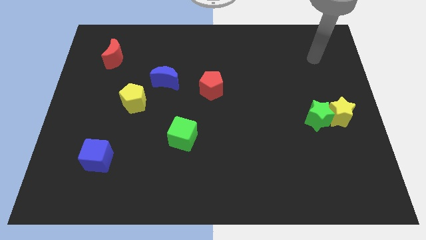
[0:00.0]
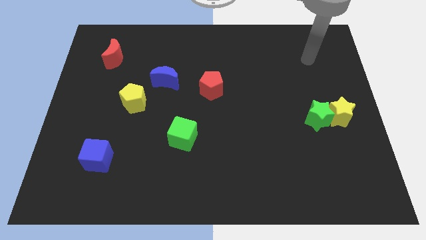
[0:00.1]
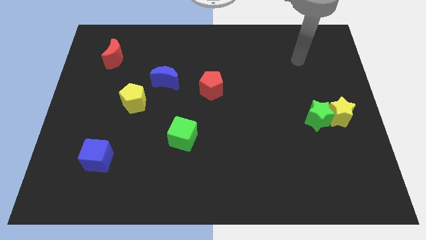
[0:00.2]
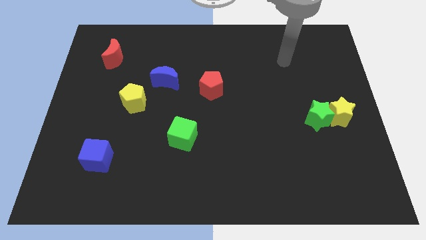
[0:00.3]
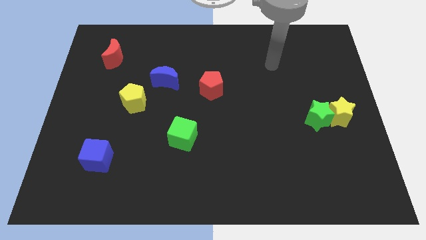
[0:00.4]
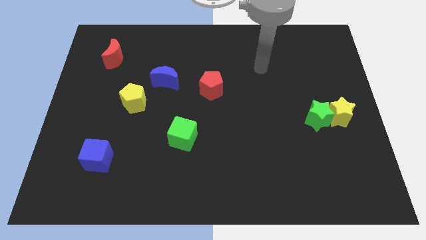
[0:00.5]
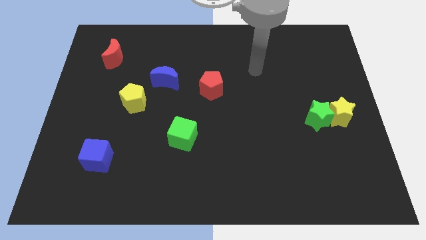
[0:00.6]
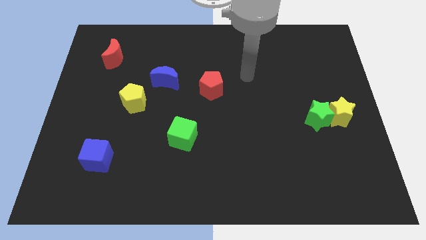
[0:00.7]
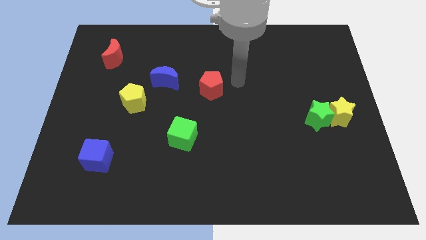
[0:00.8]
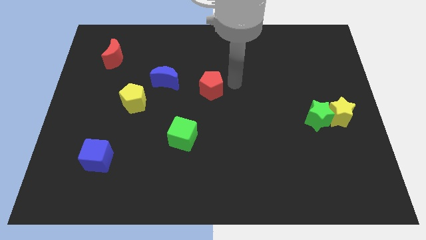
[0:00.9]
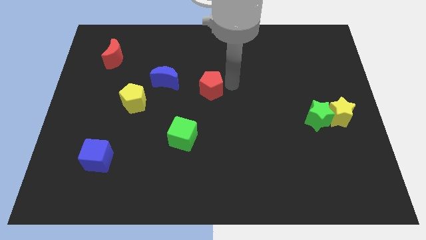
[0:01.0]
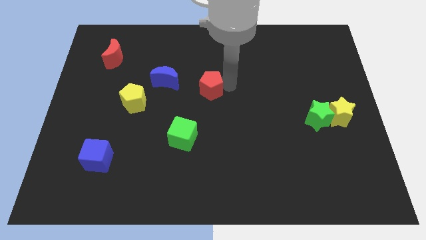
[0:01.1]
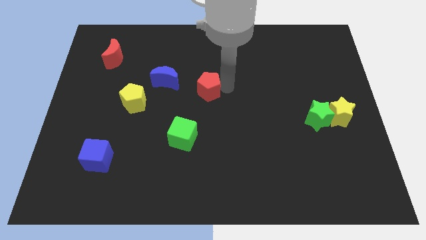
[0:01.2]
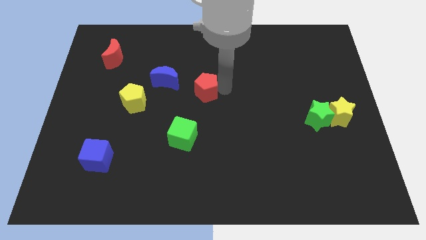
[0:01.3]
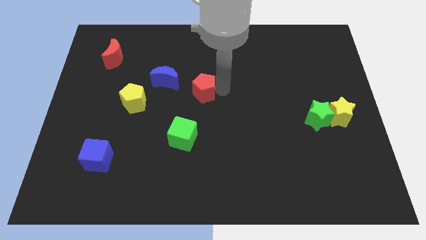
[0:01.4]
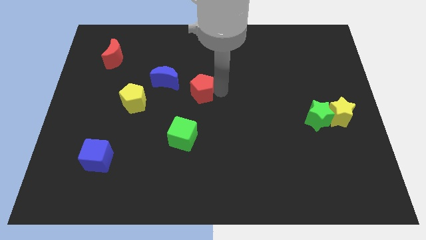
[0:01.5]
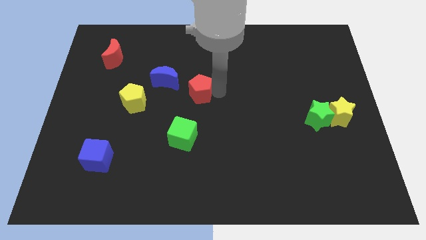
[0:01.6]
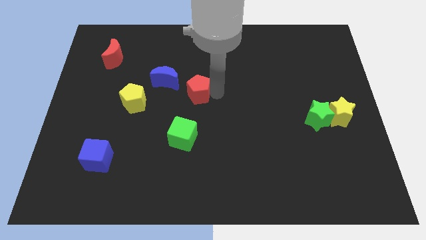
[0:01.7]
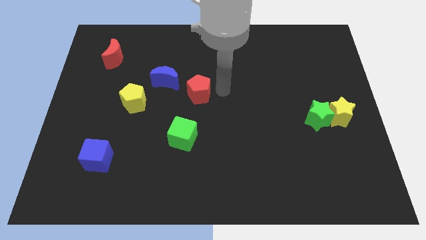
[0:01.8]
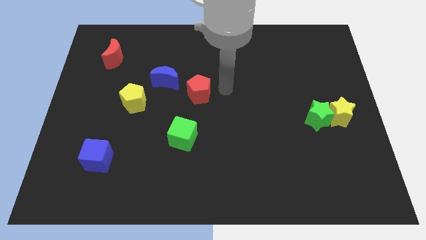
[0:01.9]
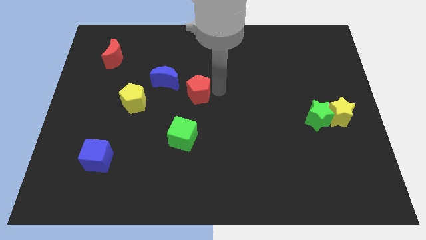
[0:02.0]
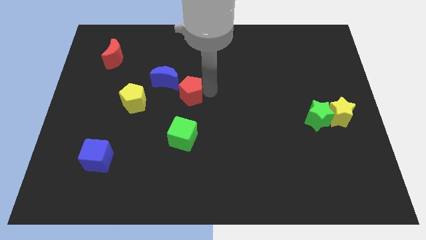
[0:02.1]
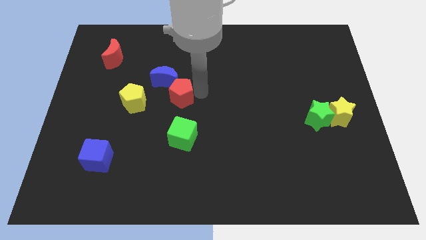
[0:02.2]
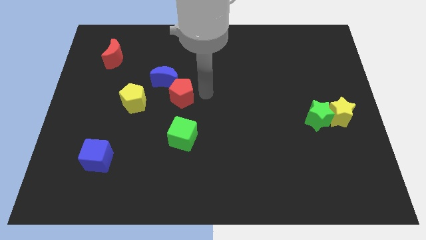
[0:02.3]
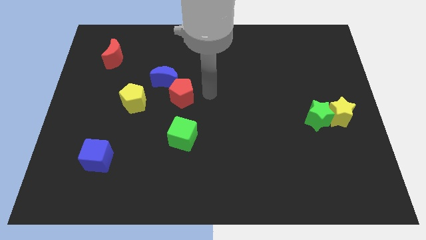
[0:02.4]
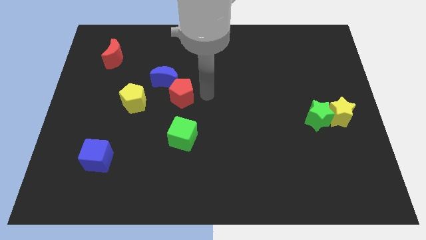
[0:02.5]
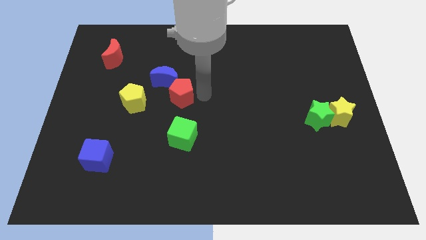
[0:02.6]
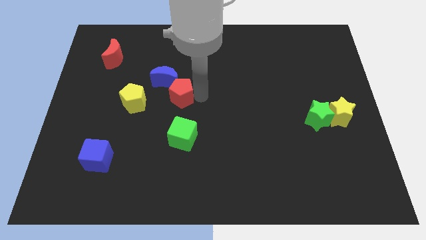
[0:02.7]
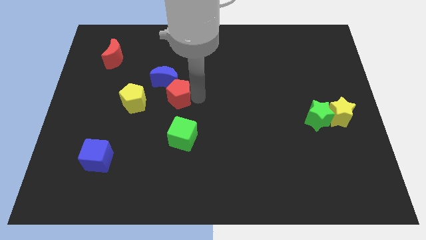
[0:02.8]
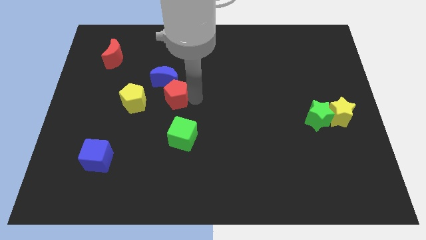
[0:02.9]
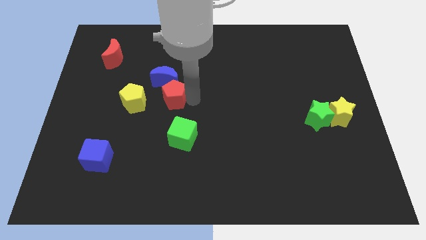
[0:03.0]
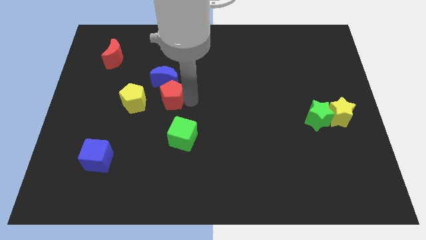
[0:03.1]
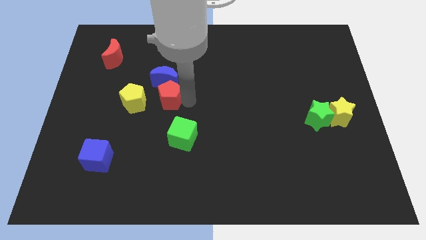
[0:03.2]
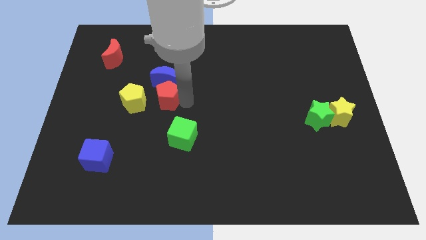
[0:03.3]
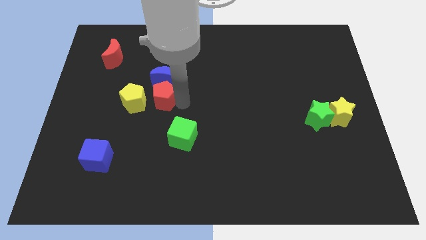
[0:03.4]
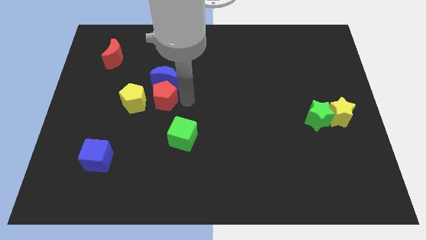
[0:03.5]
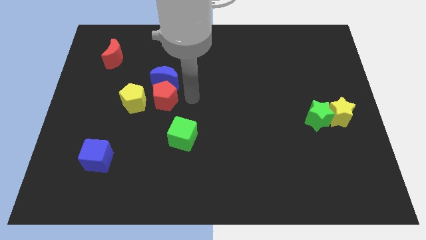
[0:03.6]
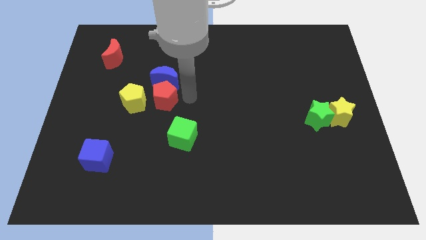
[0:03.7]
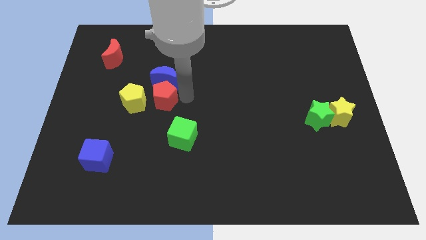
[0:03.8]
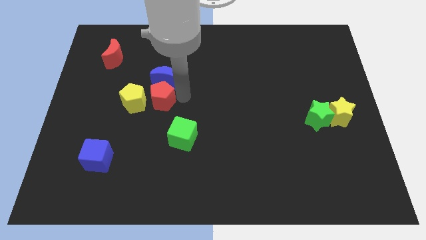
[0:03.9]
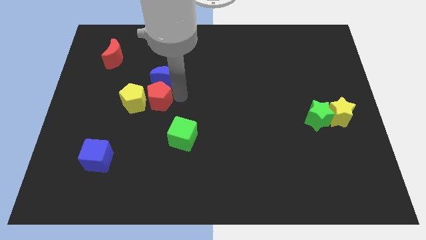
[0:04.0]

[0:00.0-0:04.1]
slide the red pentagon next to the yellow pentagon

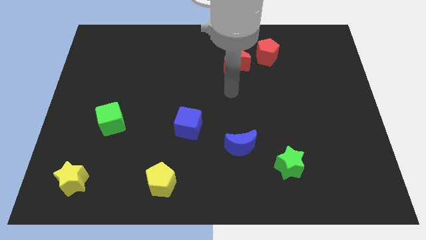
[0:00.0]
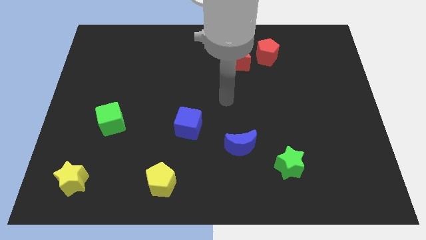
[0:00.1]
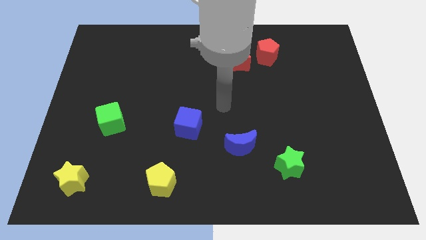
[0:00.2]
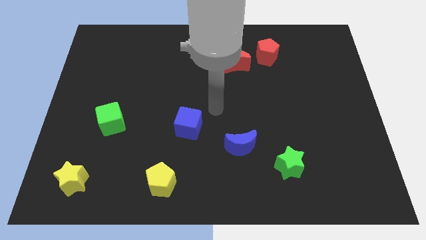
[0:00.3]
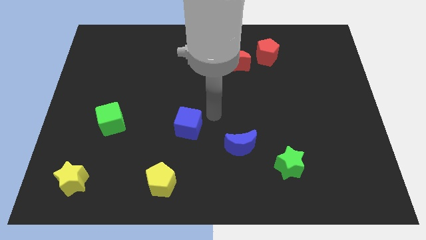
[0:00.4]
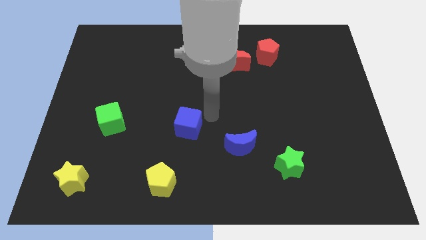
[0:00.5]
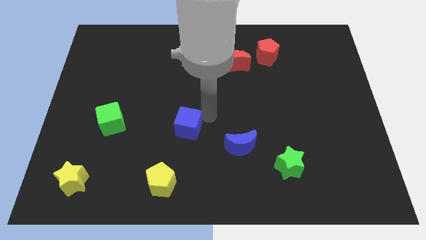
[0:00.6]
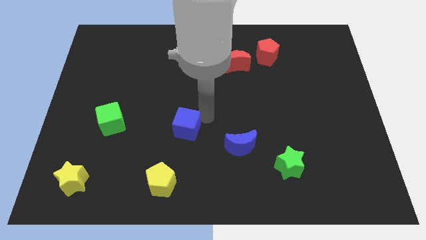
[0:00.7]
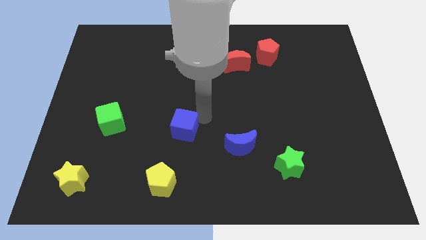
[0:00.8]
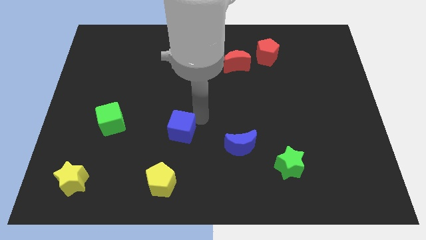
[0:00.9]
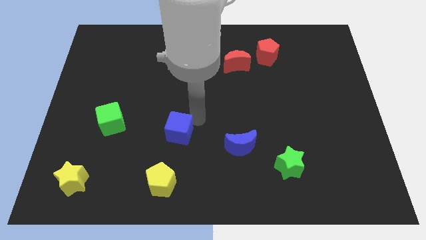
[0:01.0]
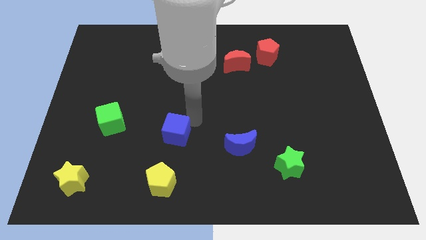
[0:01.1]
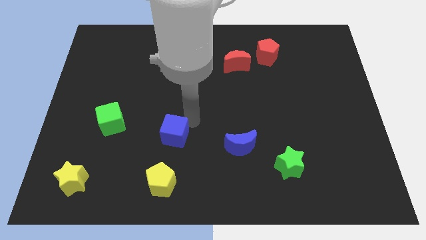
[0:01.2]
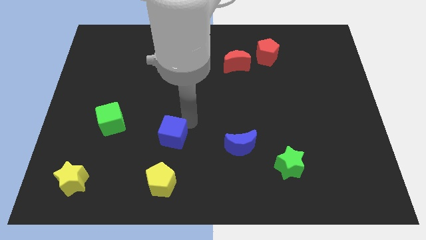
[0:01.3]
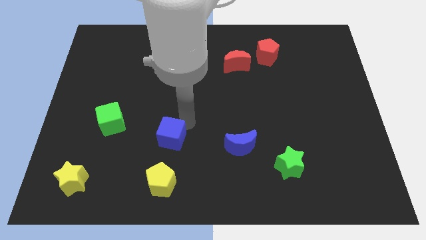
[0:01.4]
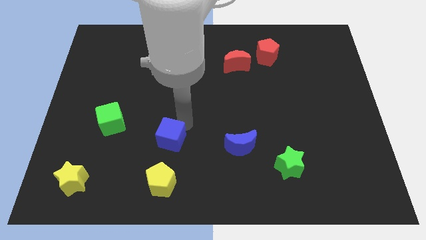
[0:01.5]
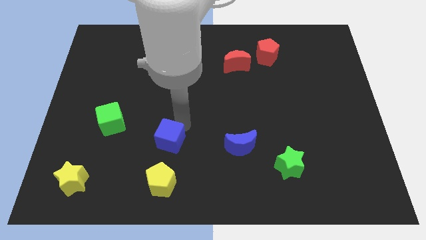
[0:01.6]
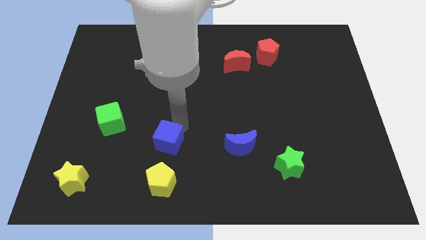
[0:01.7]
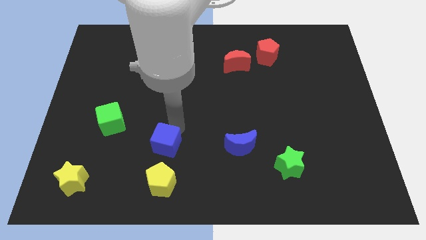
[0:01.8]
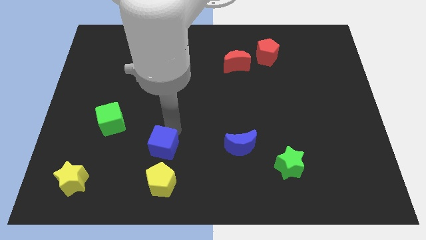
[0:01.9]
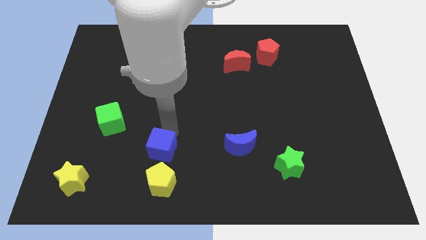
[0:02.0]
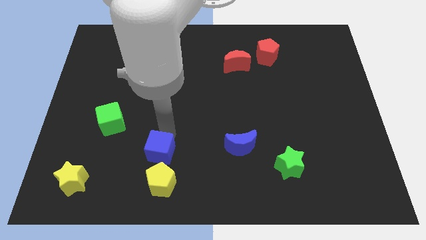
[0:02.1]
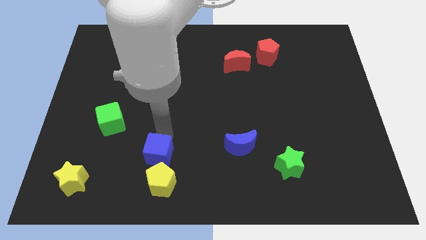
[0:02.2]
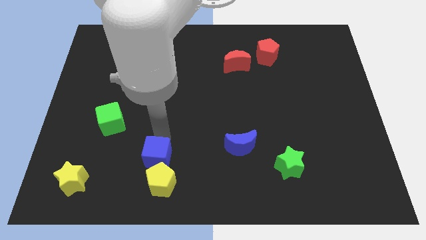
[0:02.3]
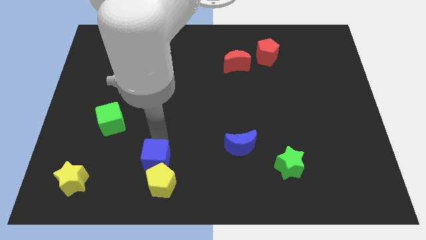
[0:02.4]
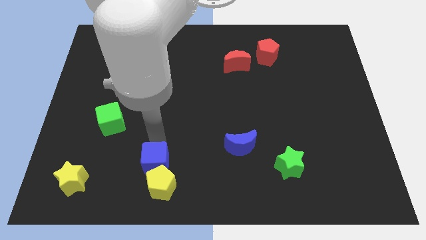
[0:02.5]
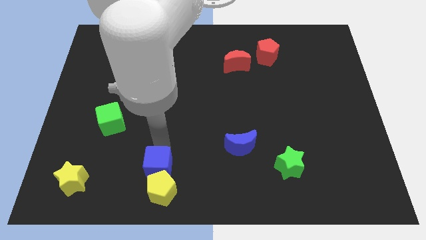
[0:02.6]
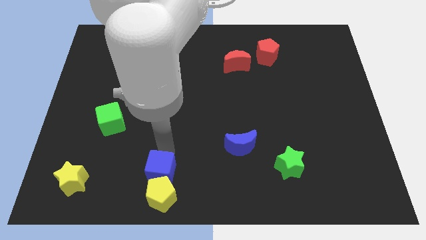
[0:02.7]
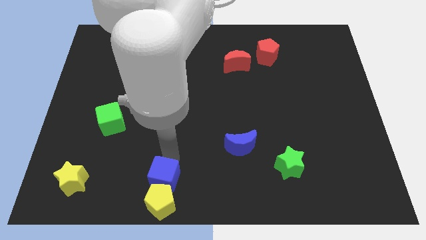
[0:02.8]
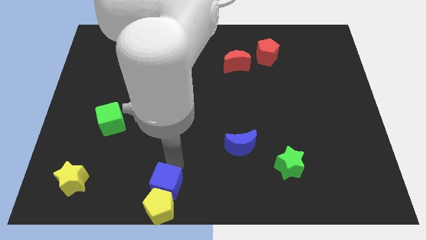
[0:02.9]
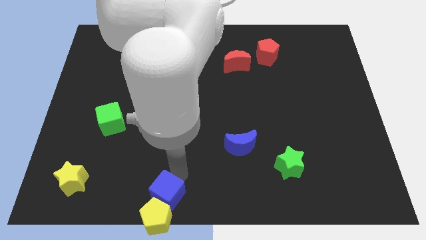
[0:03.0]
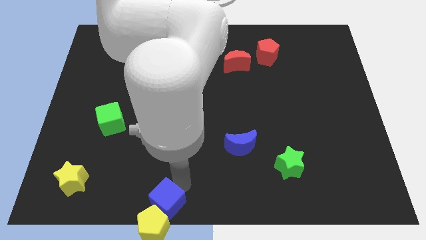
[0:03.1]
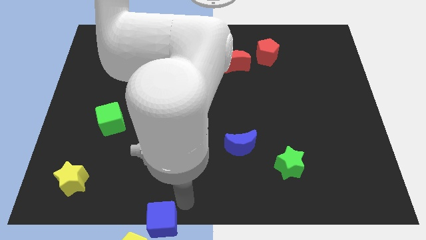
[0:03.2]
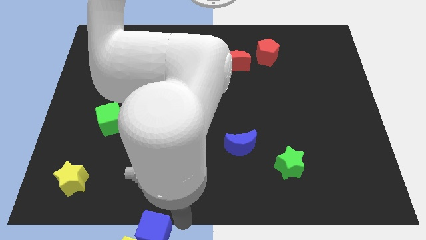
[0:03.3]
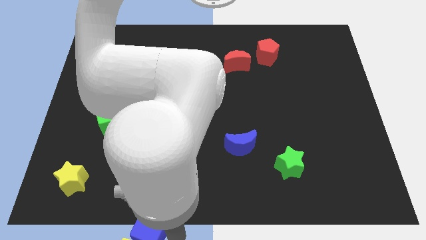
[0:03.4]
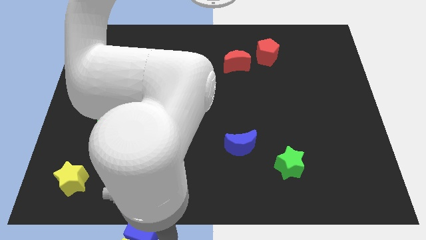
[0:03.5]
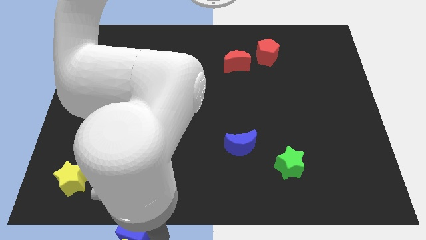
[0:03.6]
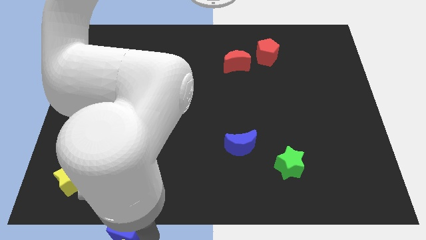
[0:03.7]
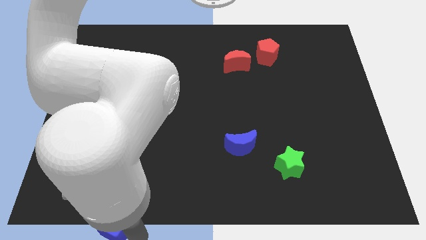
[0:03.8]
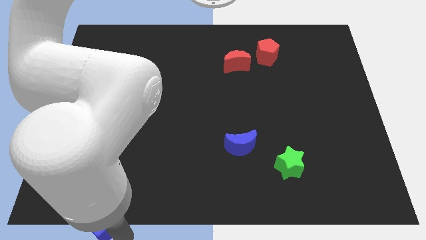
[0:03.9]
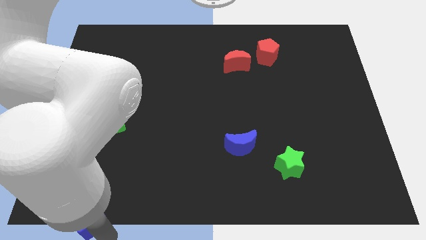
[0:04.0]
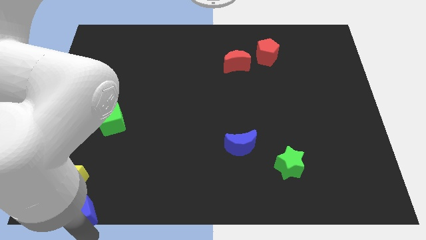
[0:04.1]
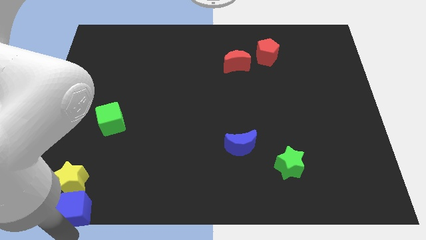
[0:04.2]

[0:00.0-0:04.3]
put the blue cube to the yellow star
